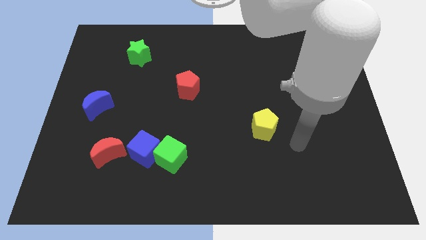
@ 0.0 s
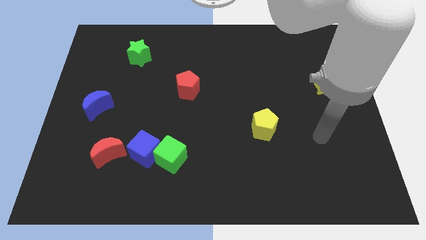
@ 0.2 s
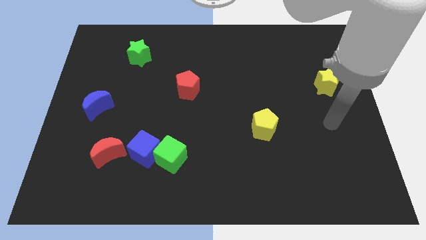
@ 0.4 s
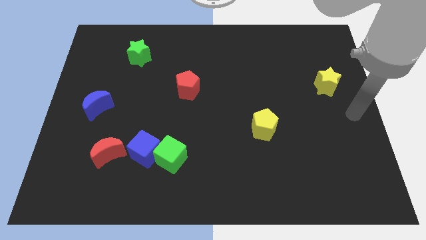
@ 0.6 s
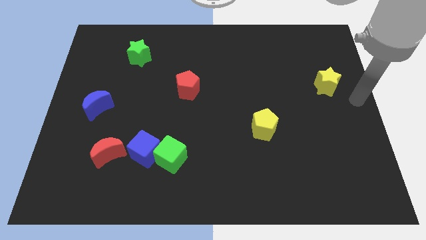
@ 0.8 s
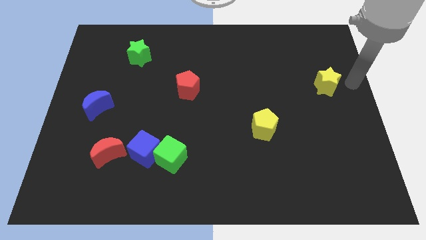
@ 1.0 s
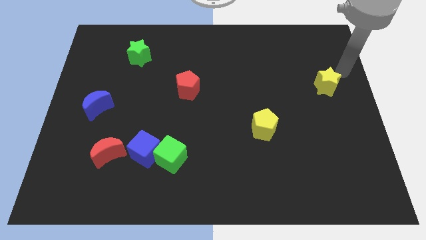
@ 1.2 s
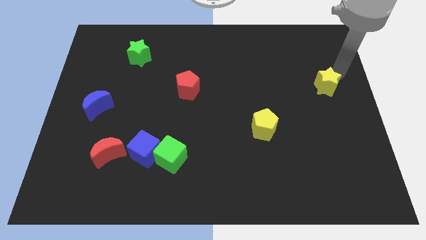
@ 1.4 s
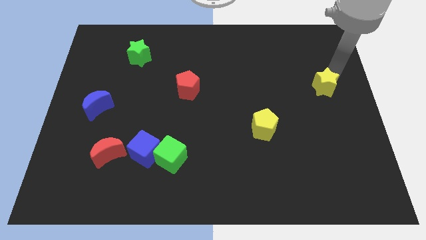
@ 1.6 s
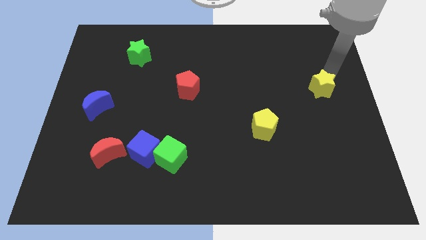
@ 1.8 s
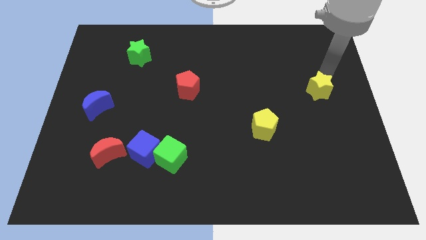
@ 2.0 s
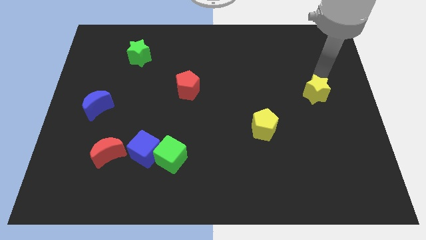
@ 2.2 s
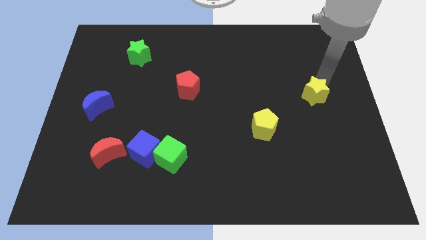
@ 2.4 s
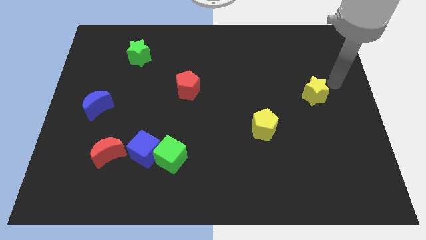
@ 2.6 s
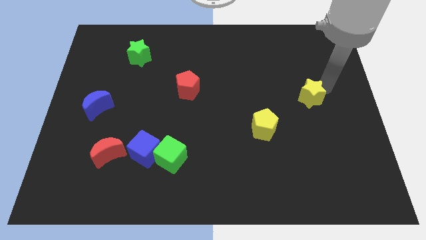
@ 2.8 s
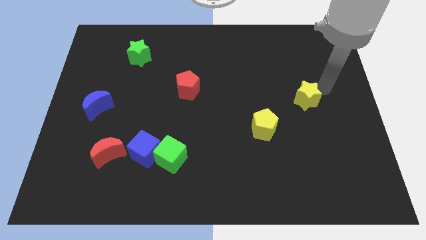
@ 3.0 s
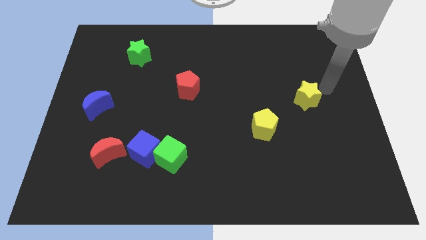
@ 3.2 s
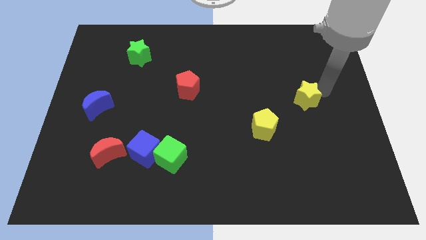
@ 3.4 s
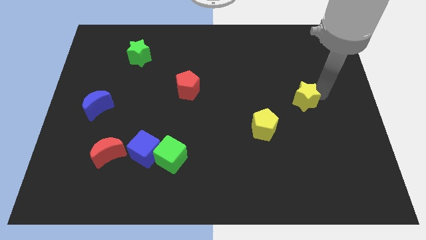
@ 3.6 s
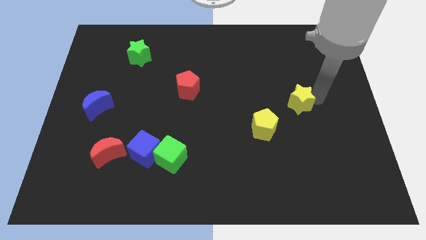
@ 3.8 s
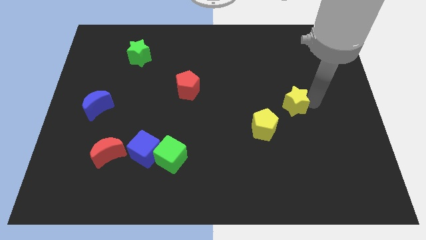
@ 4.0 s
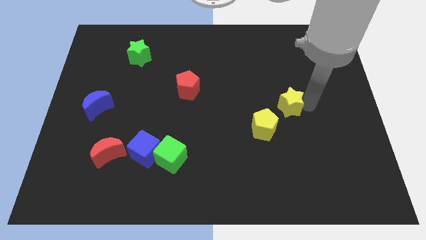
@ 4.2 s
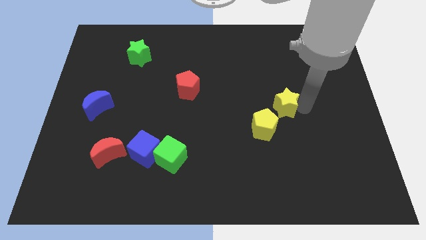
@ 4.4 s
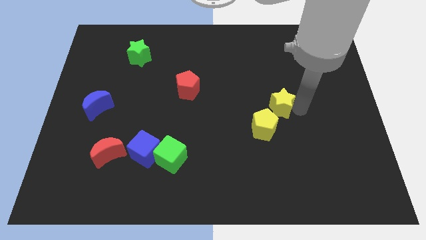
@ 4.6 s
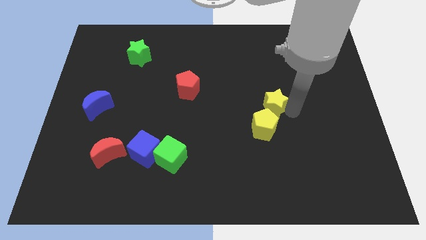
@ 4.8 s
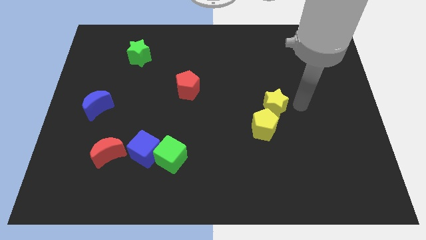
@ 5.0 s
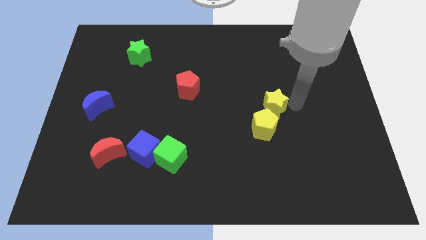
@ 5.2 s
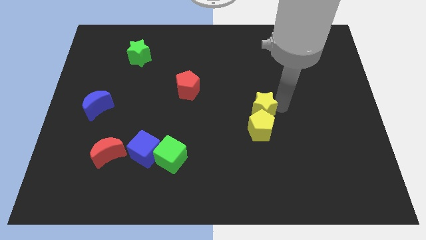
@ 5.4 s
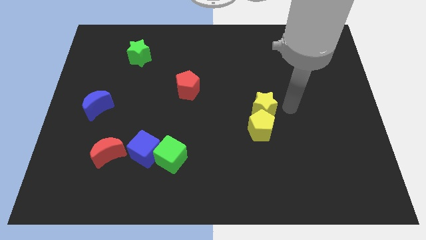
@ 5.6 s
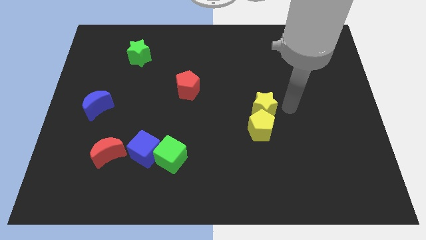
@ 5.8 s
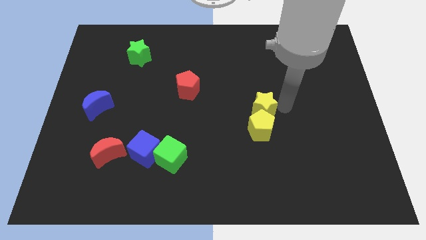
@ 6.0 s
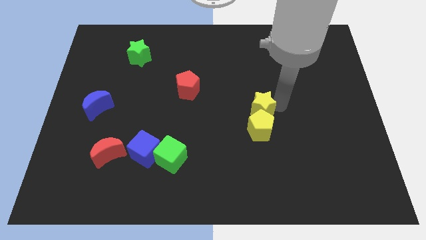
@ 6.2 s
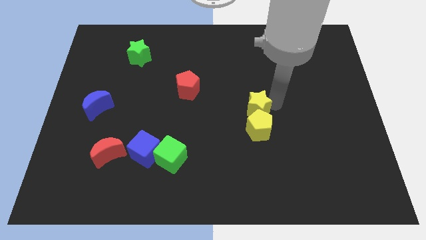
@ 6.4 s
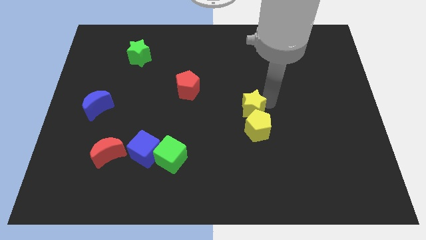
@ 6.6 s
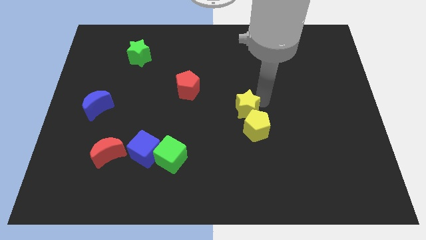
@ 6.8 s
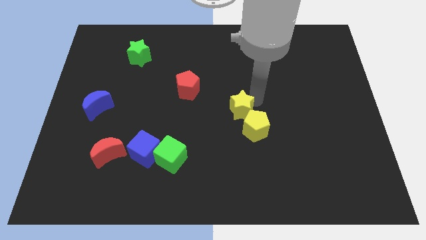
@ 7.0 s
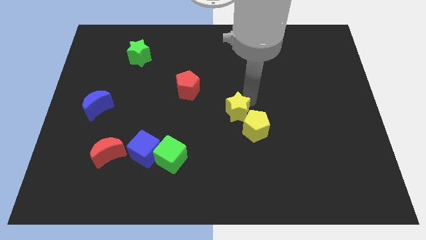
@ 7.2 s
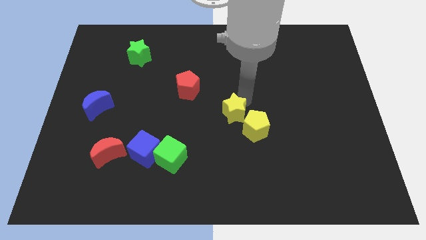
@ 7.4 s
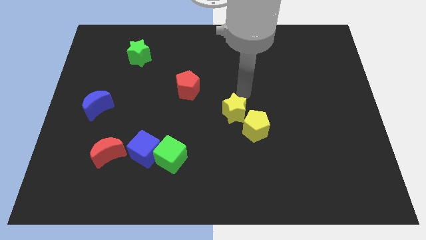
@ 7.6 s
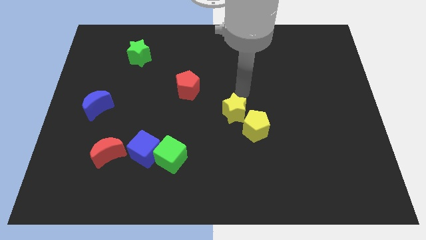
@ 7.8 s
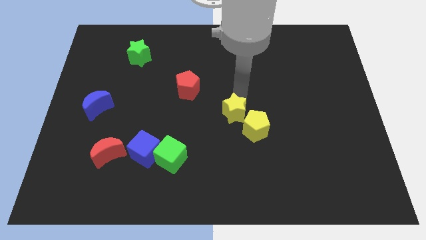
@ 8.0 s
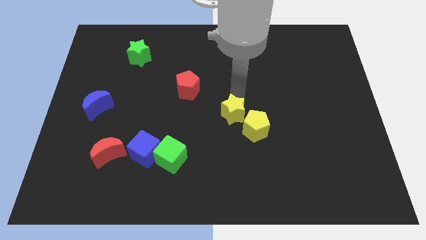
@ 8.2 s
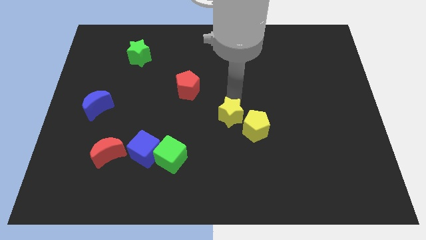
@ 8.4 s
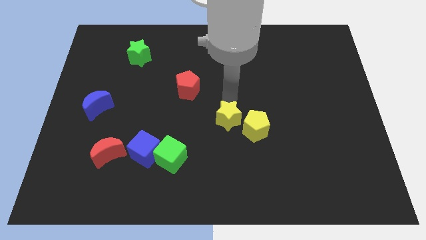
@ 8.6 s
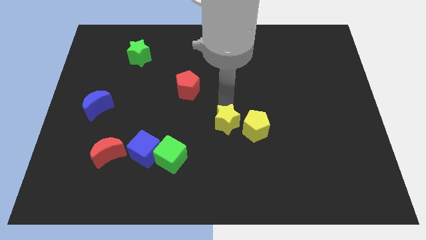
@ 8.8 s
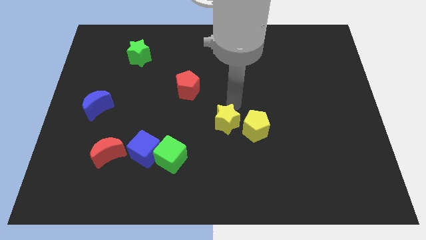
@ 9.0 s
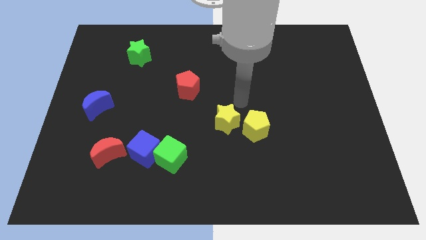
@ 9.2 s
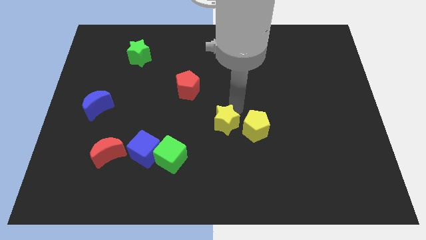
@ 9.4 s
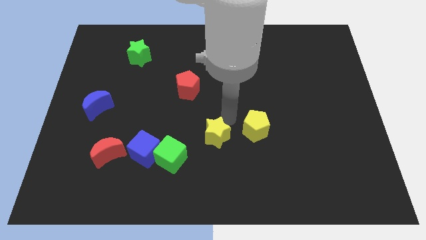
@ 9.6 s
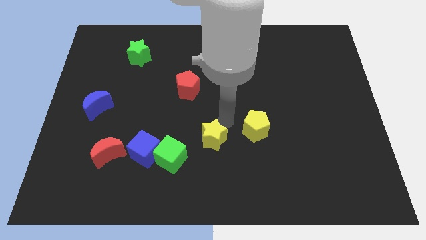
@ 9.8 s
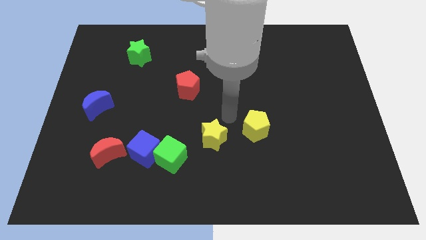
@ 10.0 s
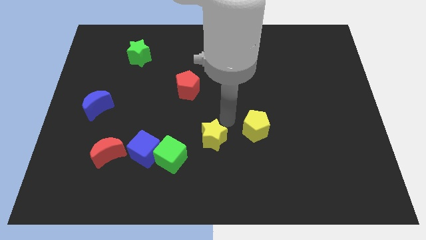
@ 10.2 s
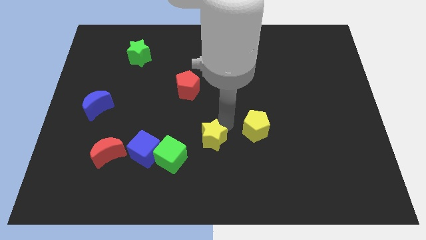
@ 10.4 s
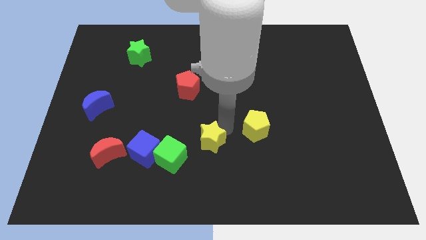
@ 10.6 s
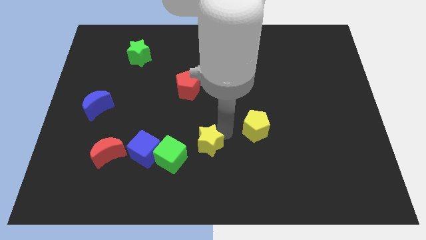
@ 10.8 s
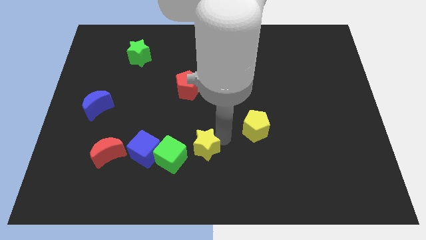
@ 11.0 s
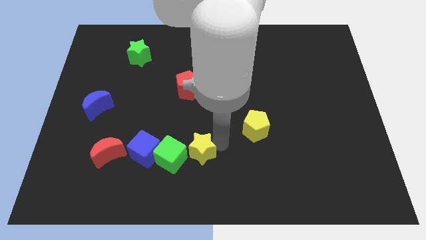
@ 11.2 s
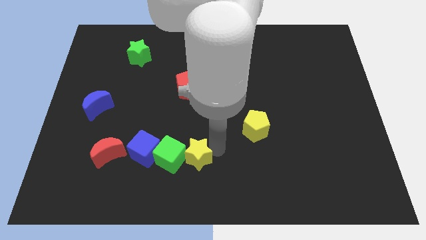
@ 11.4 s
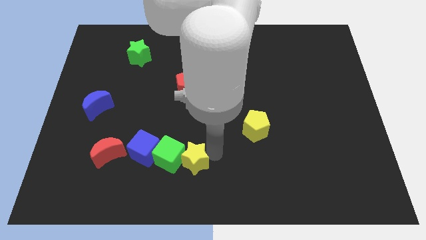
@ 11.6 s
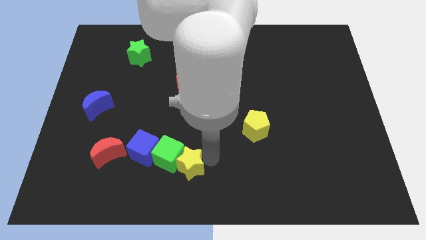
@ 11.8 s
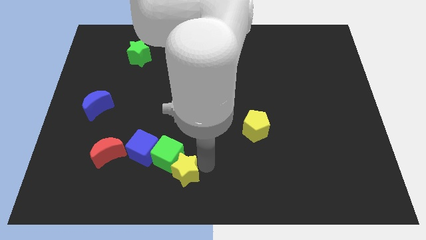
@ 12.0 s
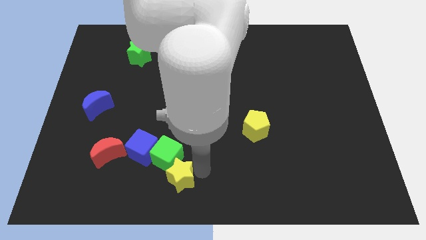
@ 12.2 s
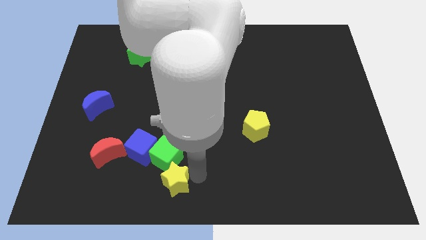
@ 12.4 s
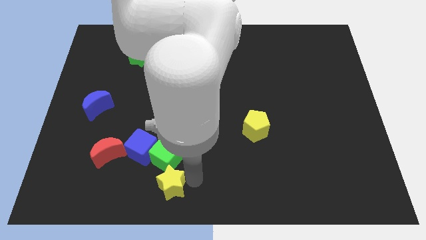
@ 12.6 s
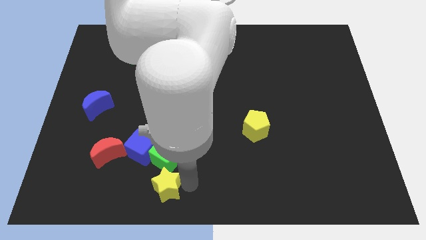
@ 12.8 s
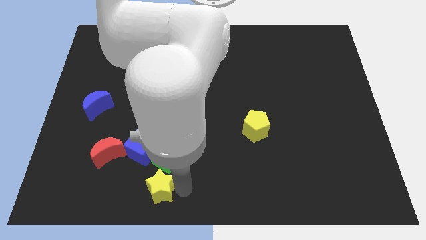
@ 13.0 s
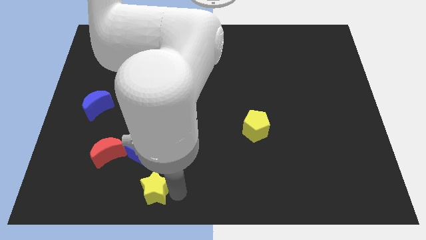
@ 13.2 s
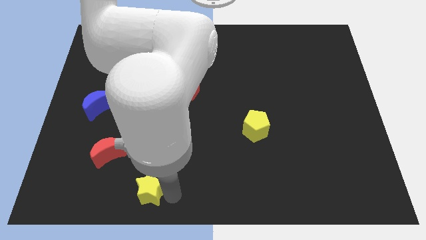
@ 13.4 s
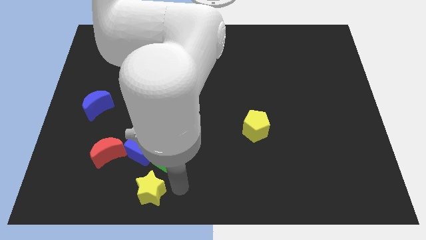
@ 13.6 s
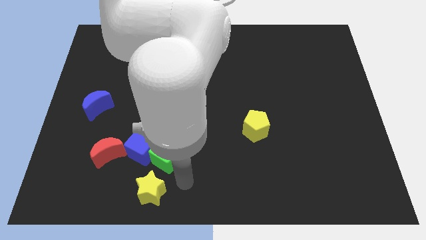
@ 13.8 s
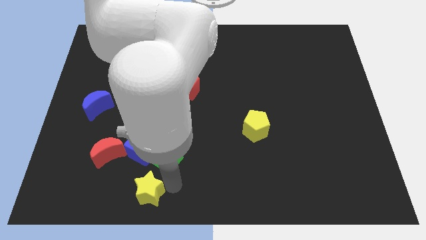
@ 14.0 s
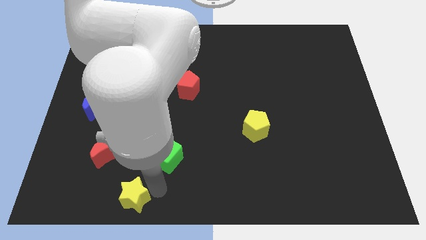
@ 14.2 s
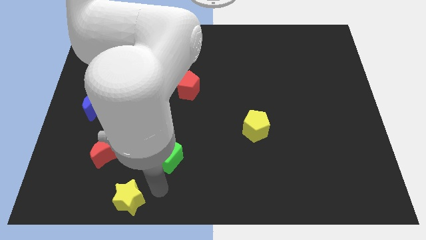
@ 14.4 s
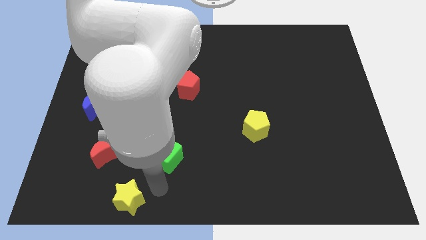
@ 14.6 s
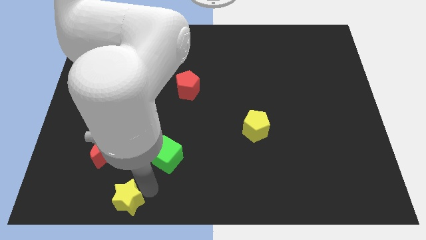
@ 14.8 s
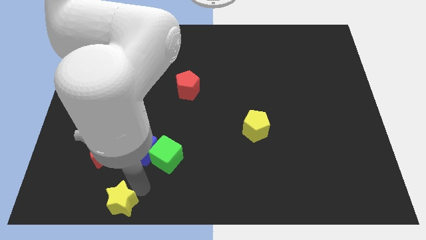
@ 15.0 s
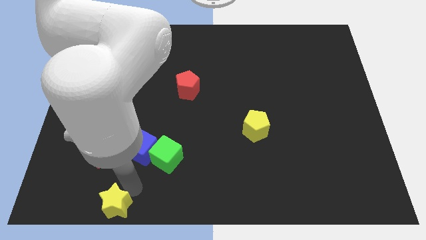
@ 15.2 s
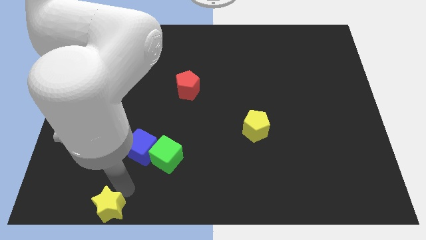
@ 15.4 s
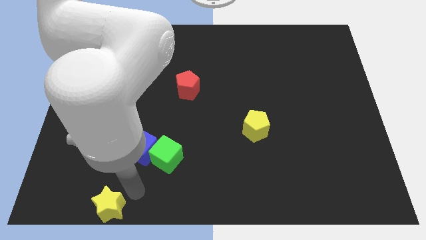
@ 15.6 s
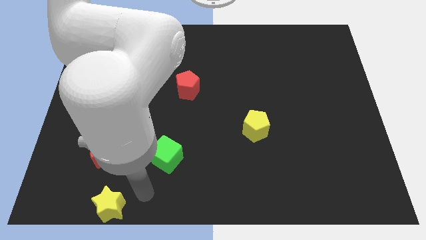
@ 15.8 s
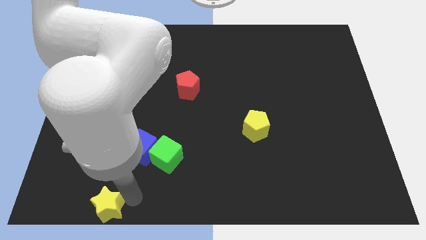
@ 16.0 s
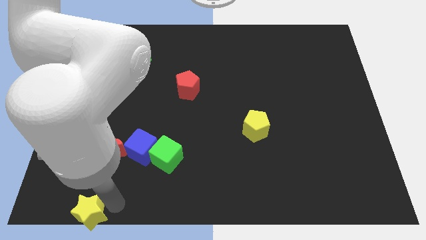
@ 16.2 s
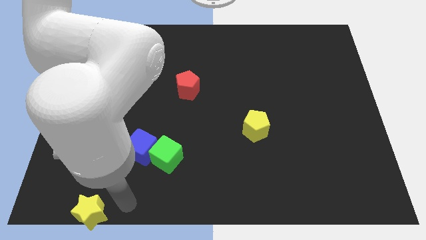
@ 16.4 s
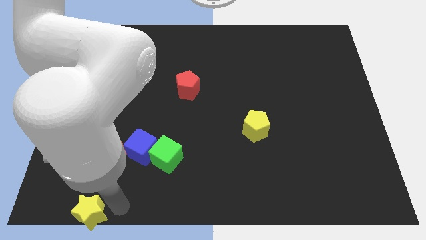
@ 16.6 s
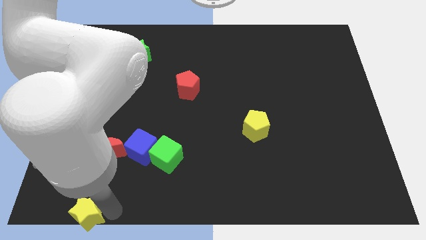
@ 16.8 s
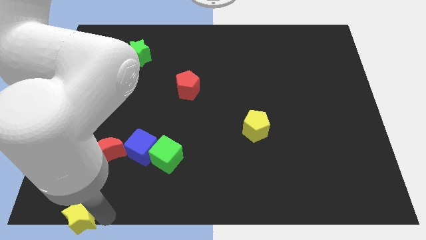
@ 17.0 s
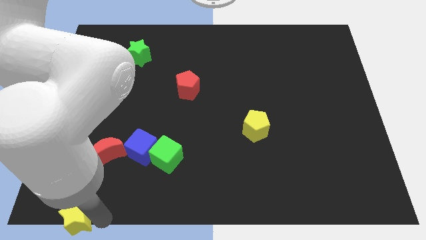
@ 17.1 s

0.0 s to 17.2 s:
slide the yellow star to the bottom left
